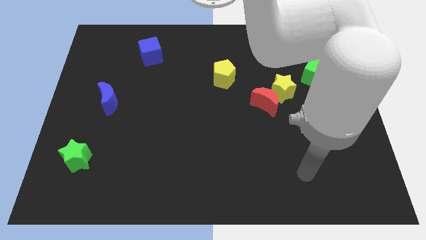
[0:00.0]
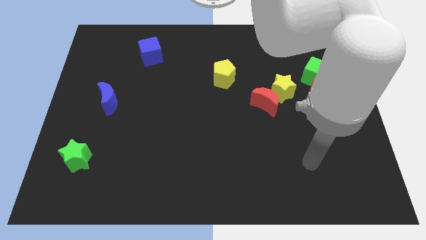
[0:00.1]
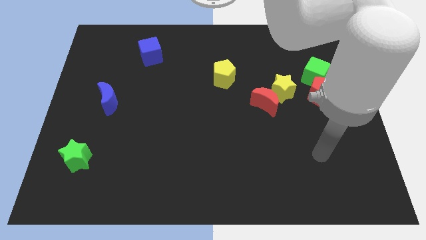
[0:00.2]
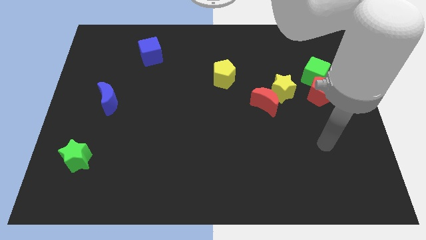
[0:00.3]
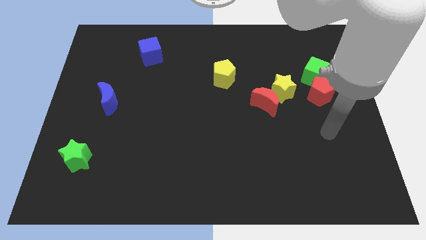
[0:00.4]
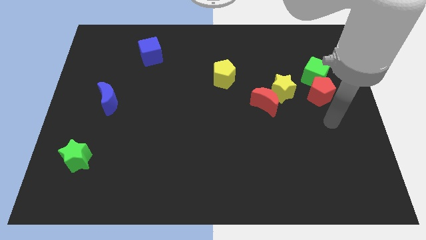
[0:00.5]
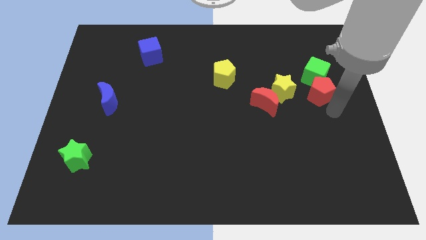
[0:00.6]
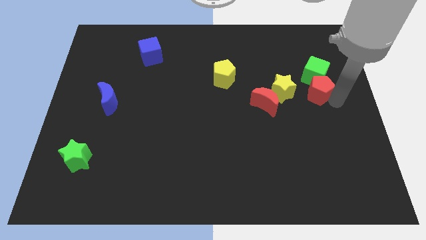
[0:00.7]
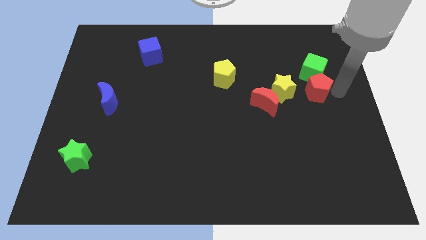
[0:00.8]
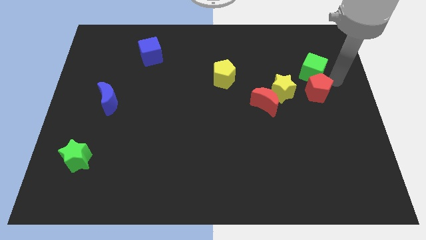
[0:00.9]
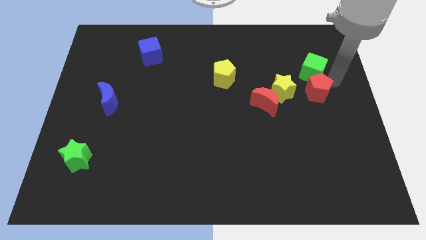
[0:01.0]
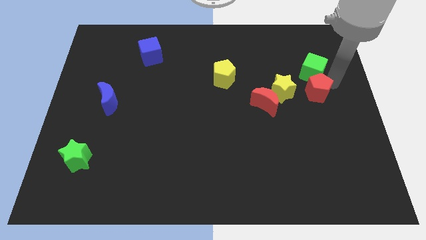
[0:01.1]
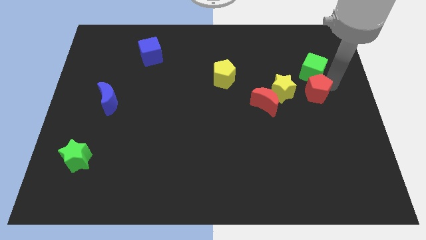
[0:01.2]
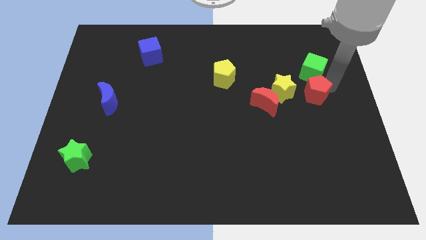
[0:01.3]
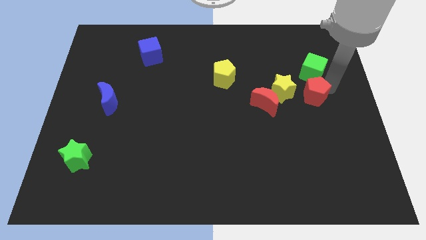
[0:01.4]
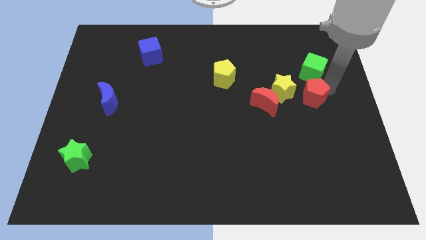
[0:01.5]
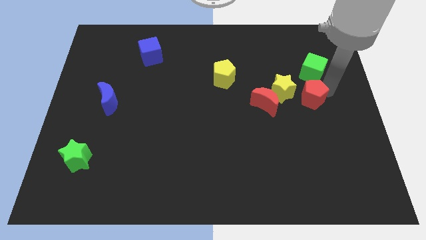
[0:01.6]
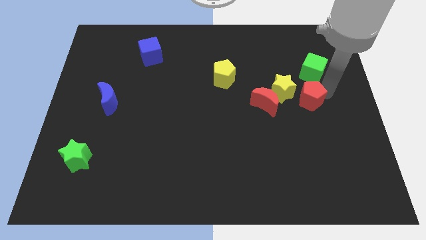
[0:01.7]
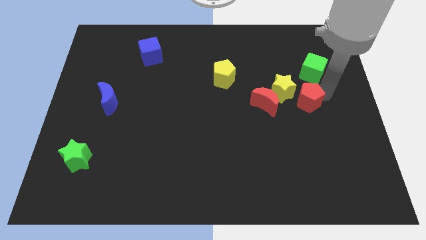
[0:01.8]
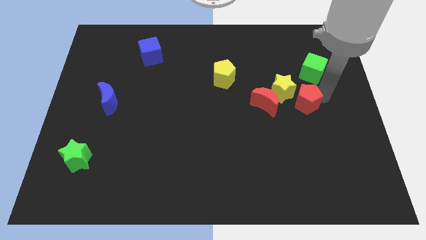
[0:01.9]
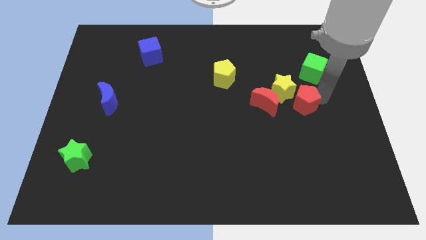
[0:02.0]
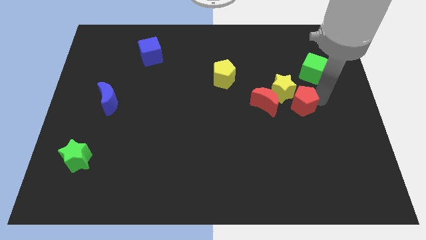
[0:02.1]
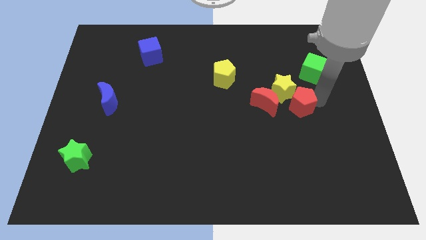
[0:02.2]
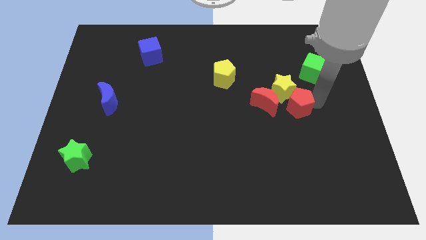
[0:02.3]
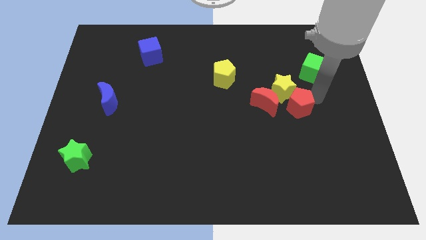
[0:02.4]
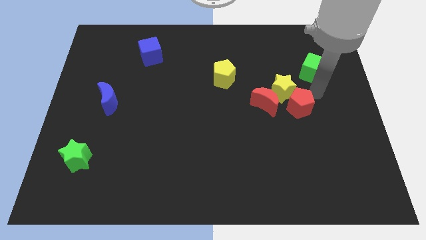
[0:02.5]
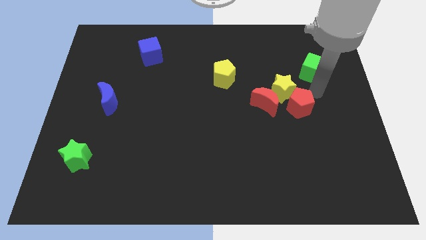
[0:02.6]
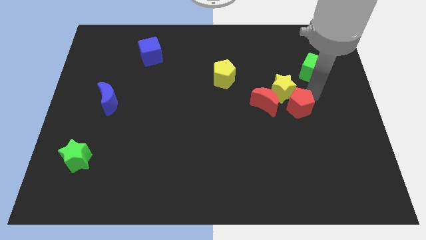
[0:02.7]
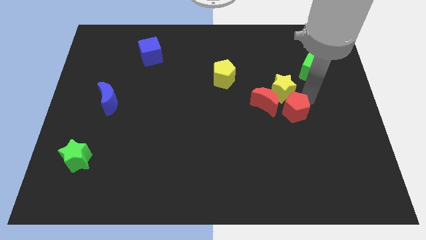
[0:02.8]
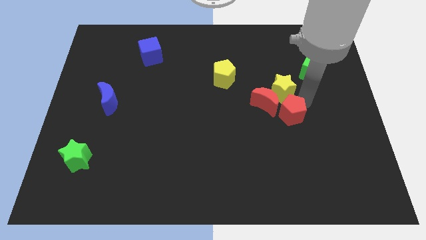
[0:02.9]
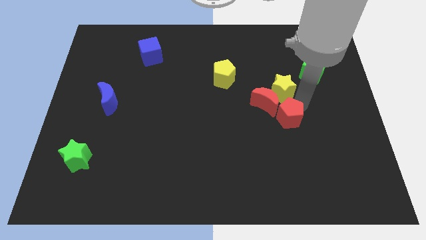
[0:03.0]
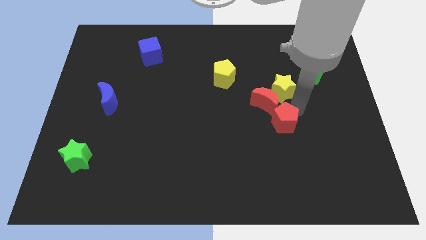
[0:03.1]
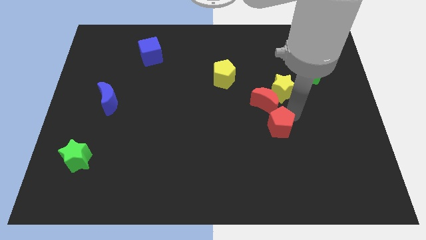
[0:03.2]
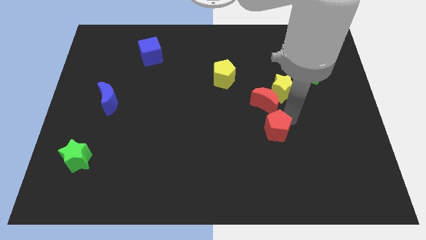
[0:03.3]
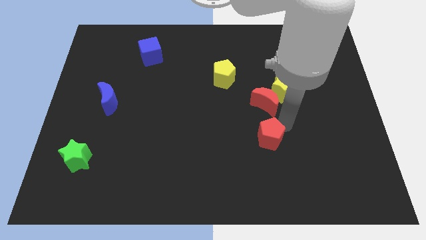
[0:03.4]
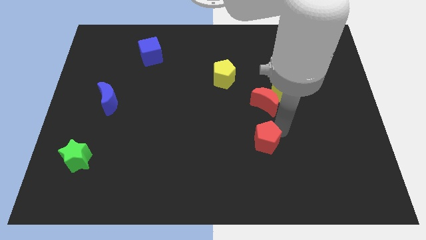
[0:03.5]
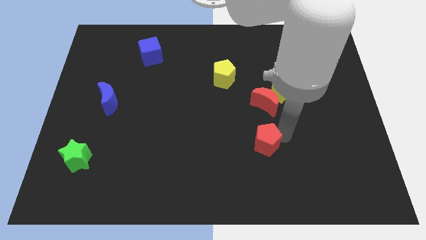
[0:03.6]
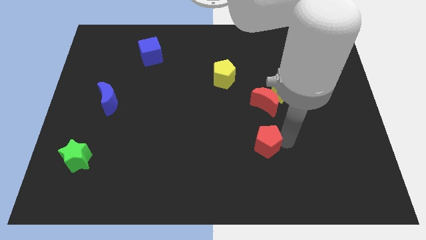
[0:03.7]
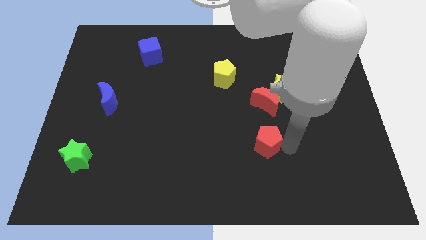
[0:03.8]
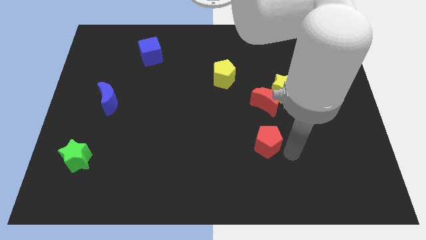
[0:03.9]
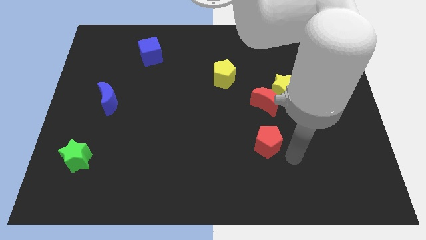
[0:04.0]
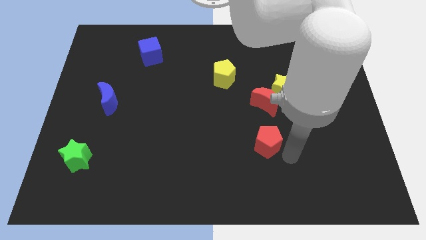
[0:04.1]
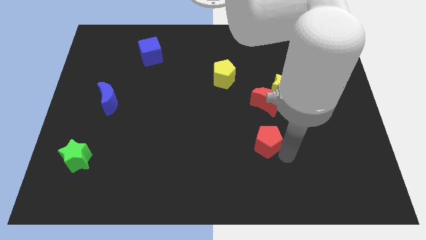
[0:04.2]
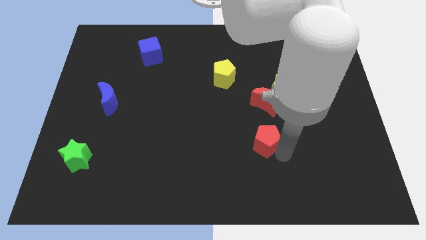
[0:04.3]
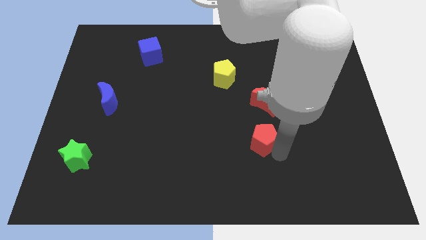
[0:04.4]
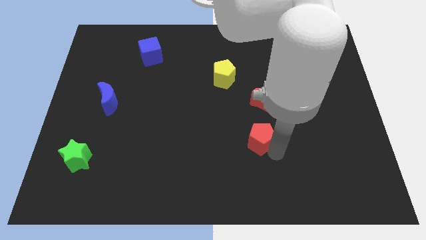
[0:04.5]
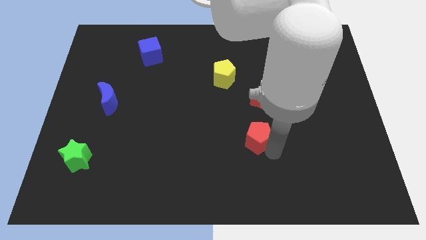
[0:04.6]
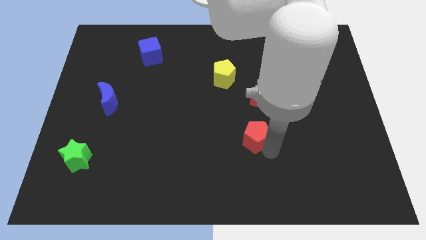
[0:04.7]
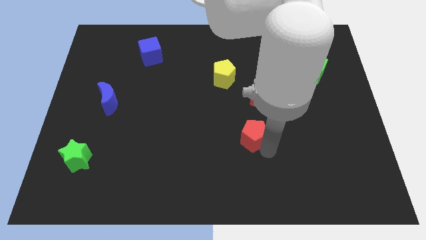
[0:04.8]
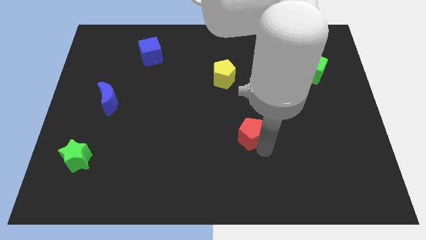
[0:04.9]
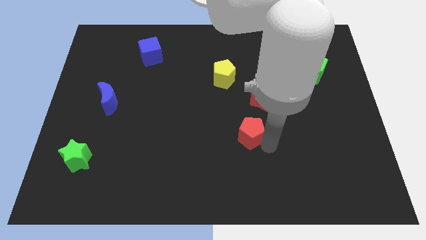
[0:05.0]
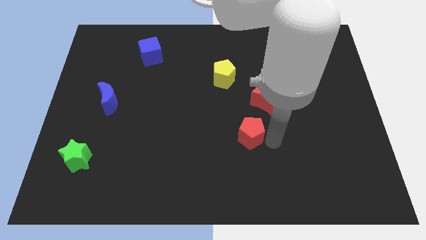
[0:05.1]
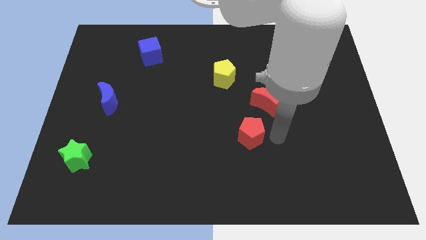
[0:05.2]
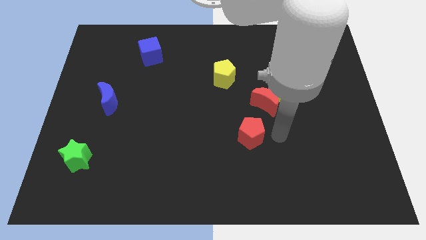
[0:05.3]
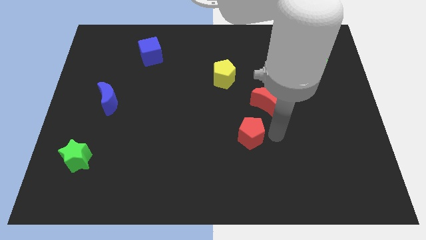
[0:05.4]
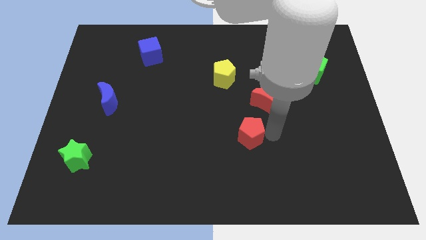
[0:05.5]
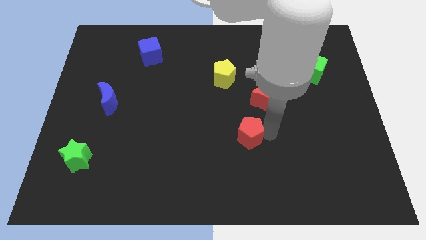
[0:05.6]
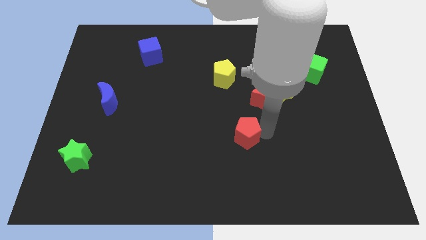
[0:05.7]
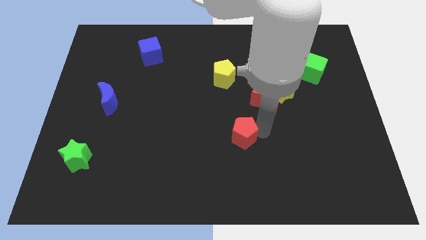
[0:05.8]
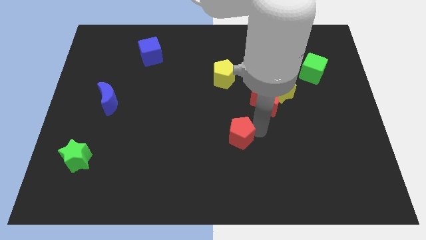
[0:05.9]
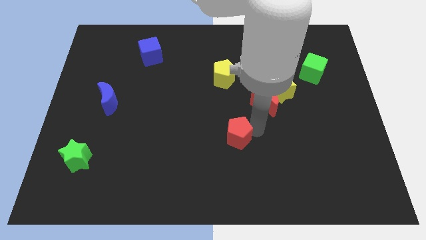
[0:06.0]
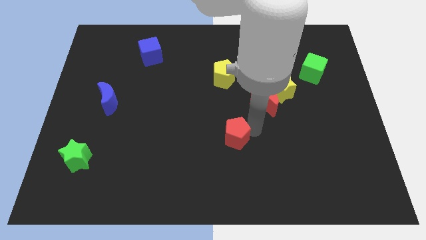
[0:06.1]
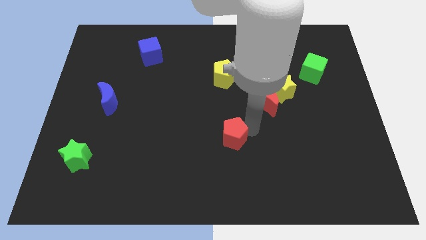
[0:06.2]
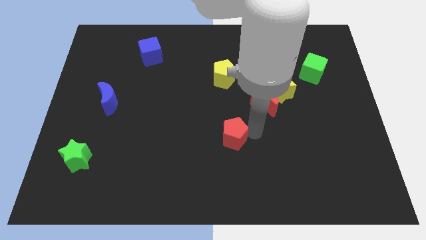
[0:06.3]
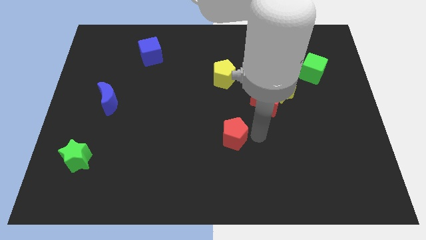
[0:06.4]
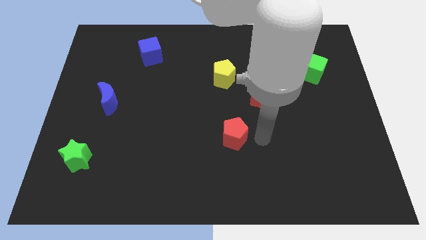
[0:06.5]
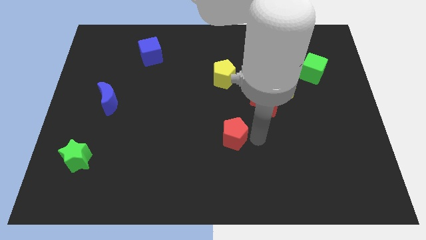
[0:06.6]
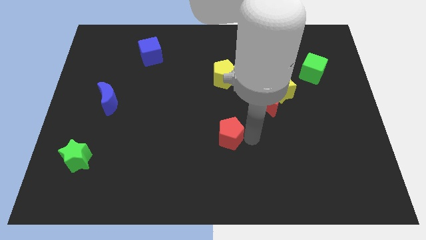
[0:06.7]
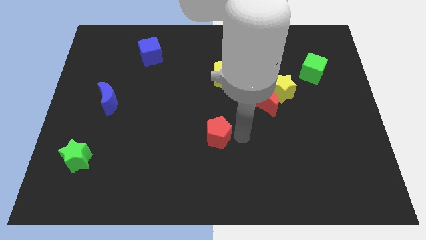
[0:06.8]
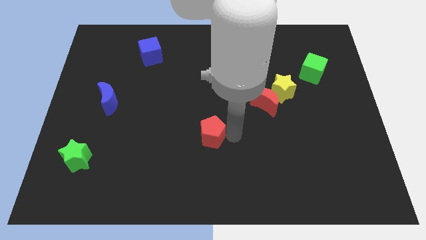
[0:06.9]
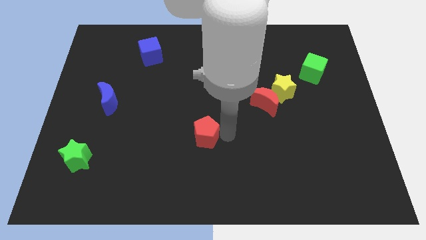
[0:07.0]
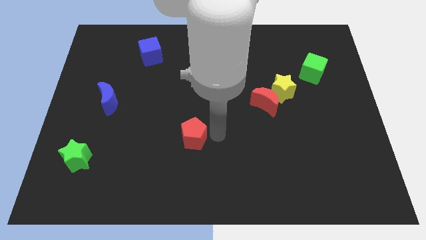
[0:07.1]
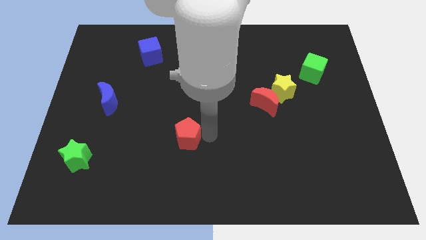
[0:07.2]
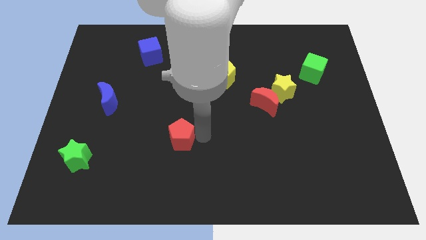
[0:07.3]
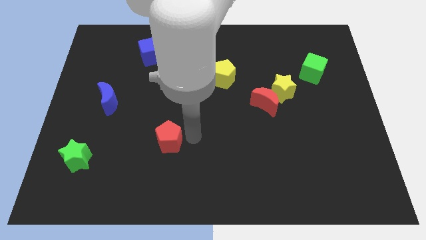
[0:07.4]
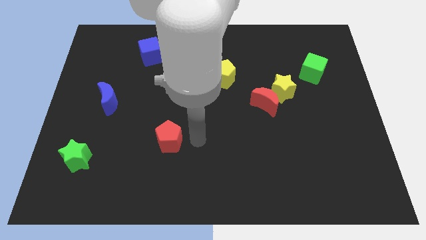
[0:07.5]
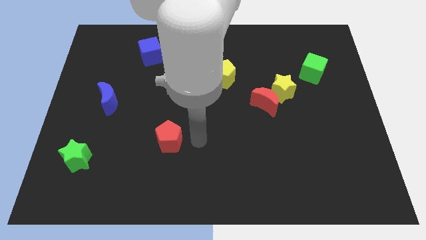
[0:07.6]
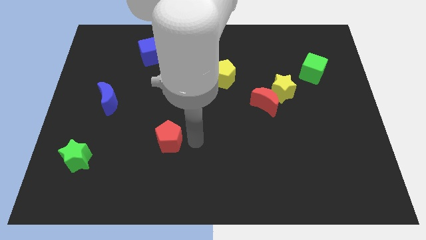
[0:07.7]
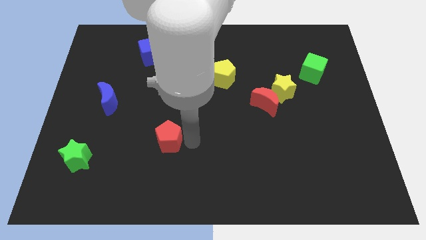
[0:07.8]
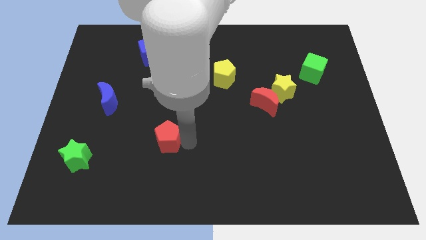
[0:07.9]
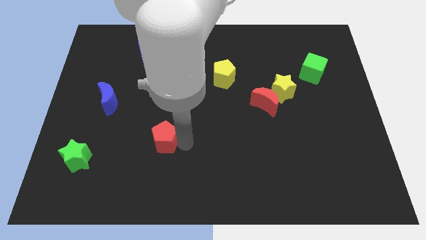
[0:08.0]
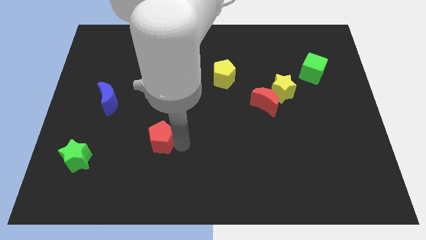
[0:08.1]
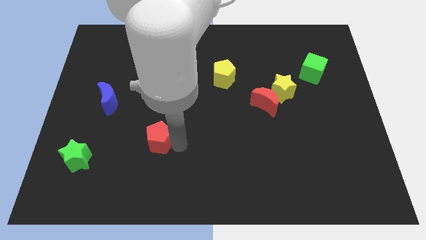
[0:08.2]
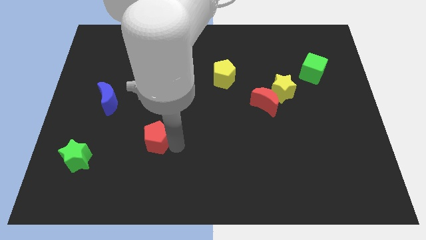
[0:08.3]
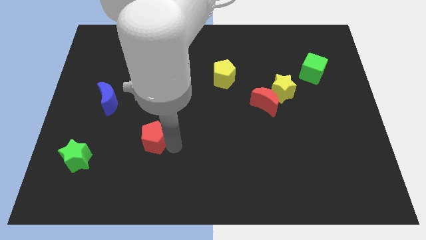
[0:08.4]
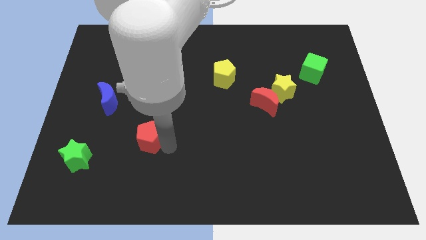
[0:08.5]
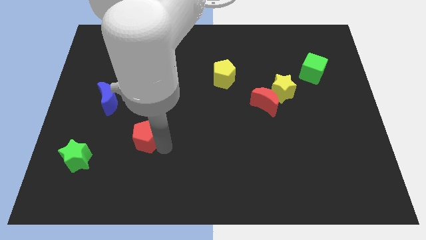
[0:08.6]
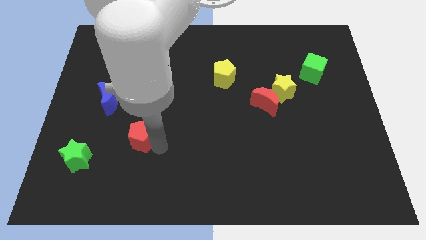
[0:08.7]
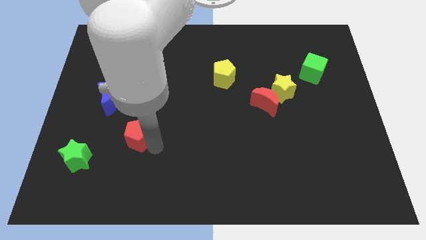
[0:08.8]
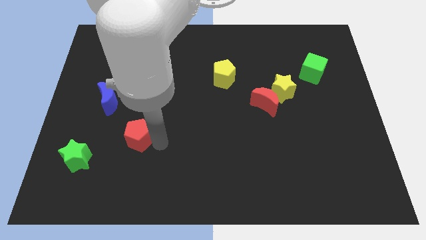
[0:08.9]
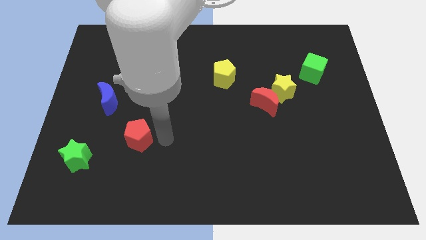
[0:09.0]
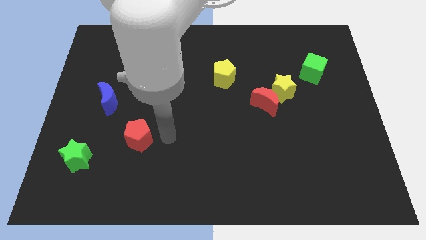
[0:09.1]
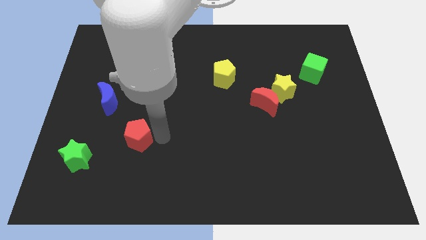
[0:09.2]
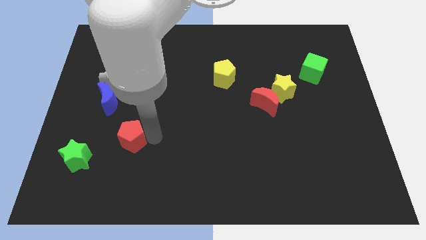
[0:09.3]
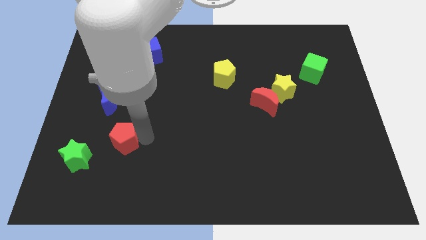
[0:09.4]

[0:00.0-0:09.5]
slide the red pentagon diagonally up and to the right of the green star
